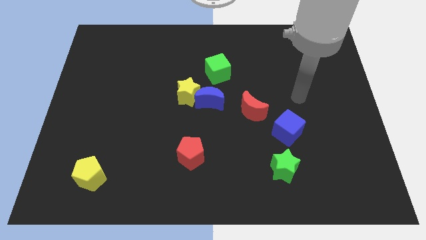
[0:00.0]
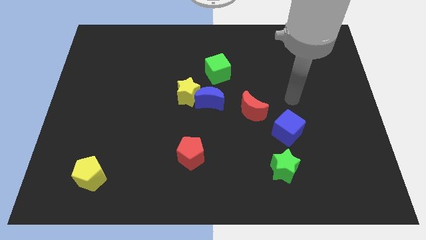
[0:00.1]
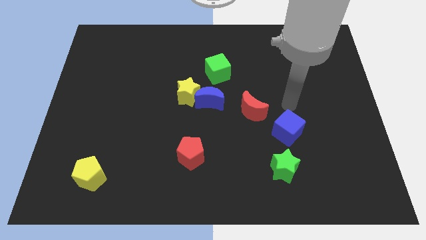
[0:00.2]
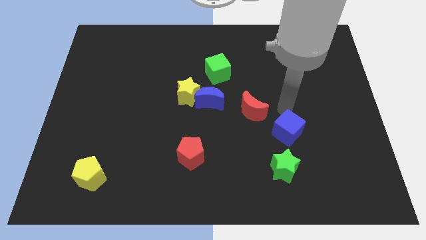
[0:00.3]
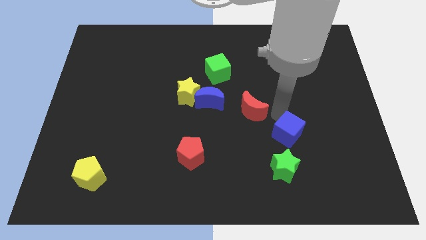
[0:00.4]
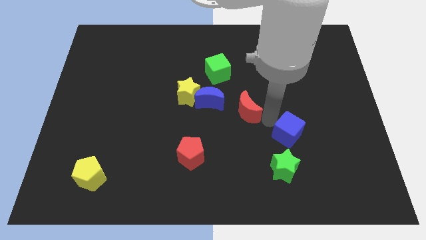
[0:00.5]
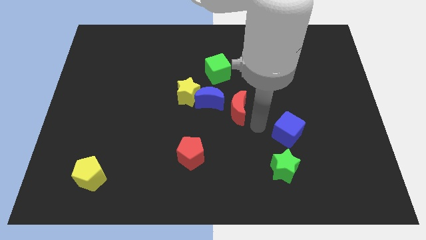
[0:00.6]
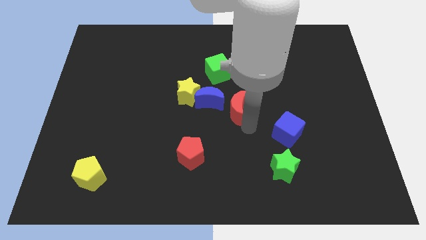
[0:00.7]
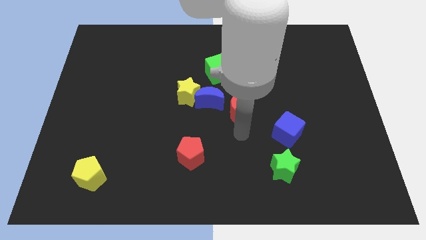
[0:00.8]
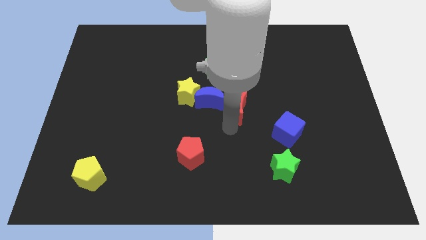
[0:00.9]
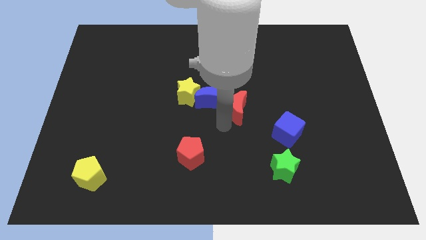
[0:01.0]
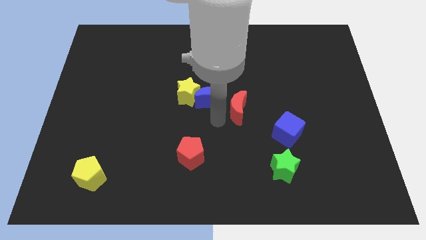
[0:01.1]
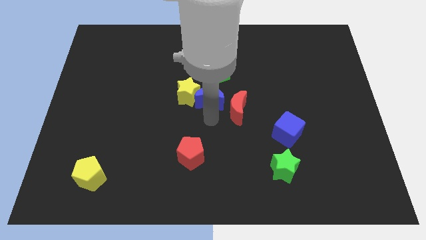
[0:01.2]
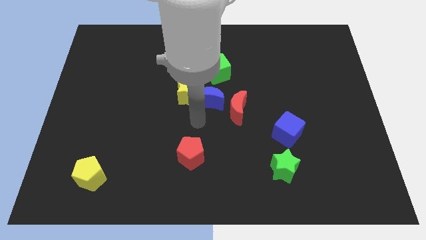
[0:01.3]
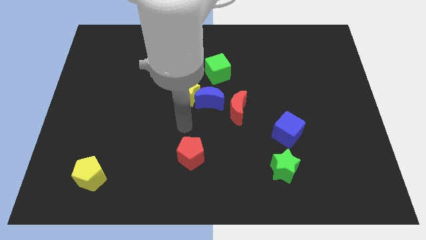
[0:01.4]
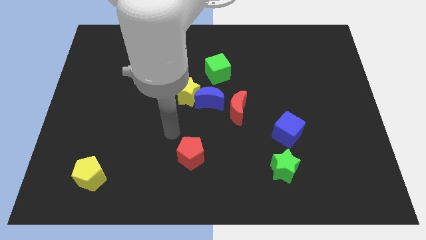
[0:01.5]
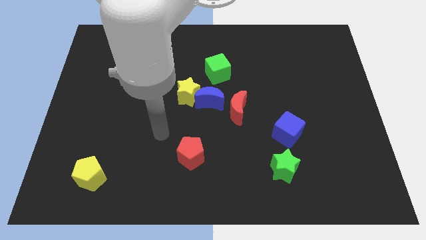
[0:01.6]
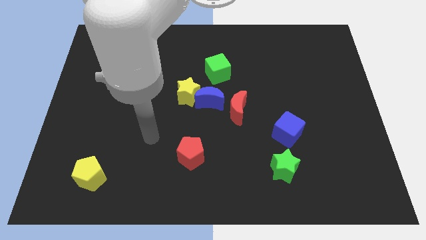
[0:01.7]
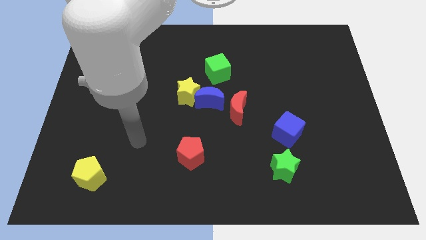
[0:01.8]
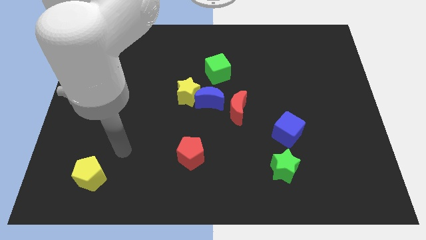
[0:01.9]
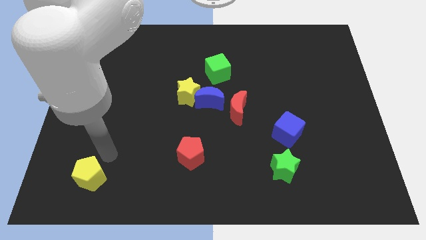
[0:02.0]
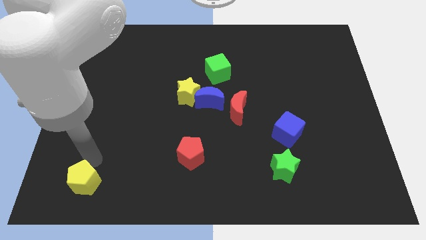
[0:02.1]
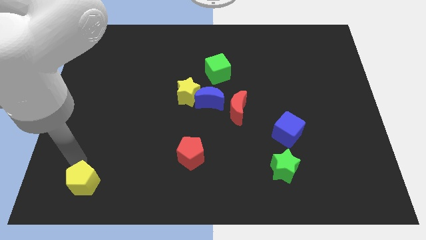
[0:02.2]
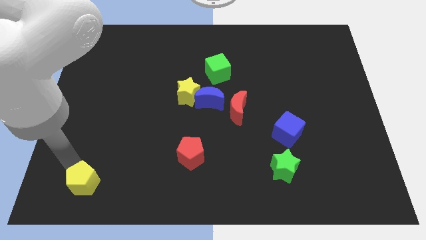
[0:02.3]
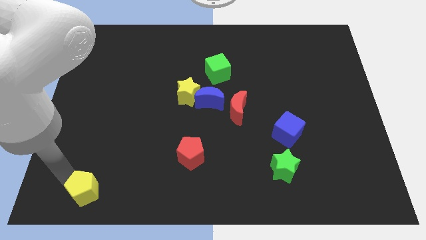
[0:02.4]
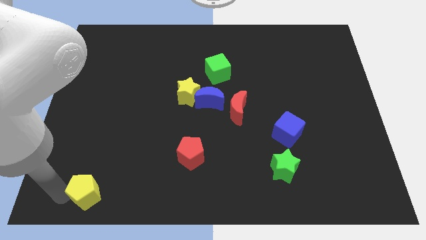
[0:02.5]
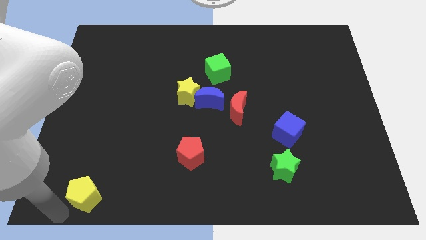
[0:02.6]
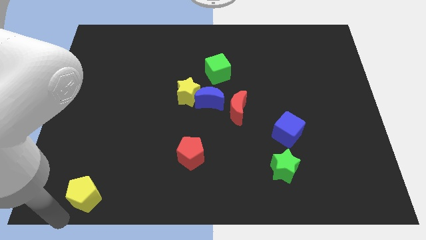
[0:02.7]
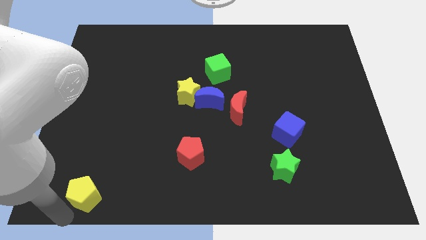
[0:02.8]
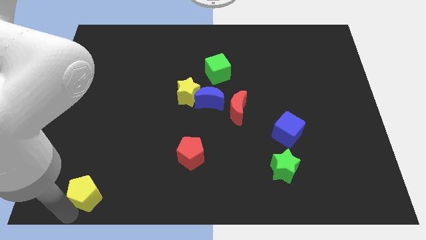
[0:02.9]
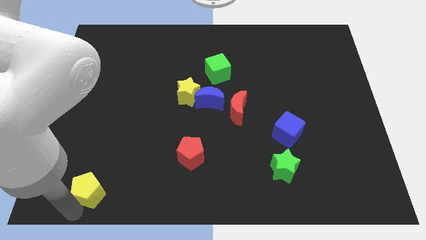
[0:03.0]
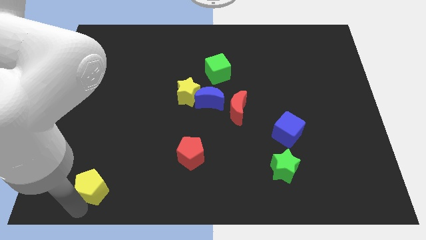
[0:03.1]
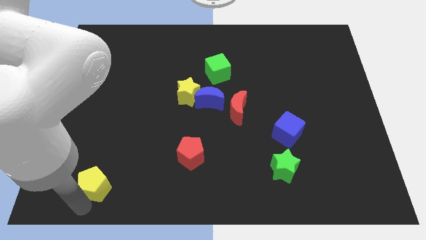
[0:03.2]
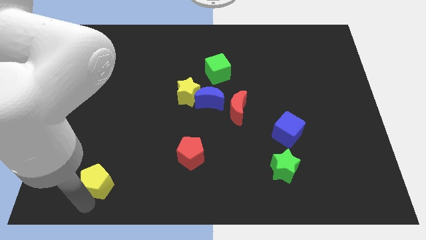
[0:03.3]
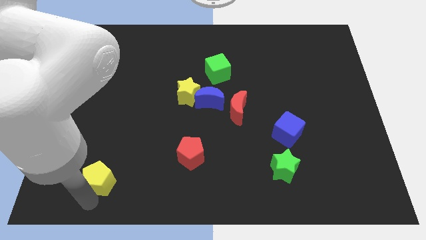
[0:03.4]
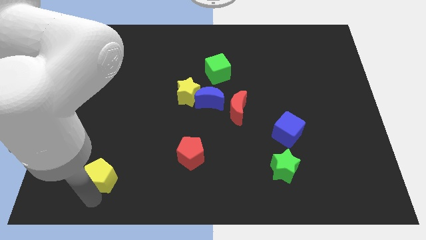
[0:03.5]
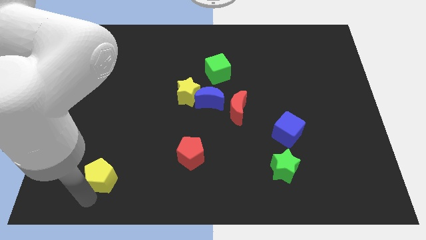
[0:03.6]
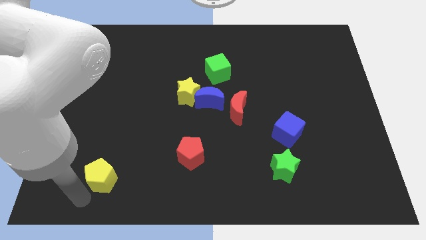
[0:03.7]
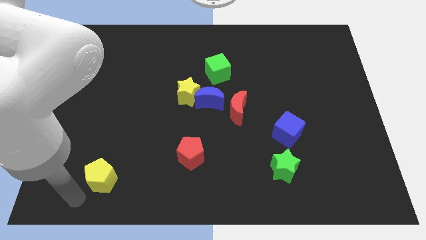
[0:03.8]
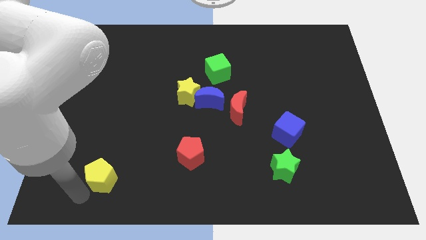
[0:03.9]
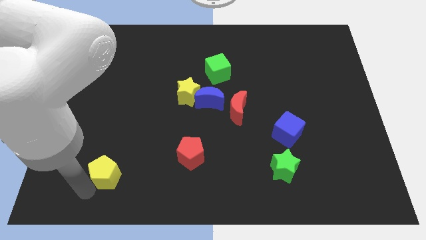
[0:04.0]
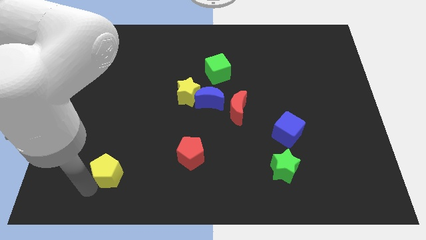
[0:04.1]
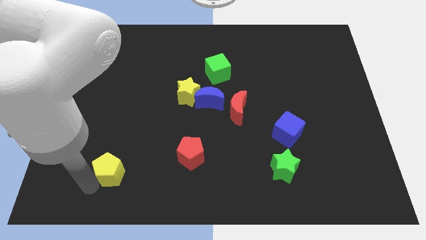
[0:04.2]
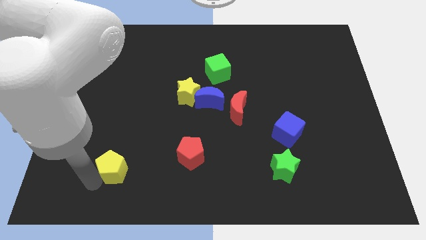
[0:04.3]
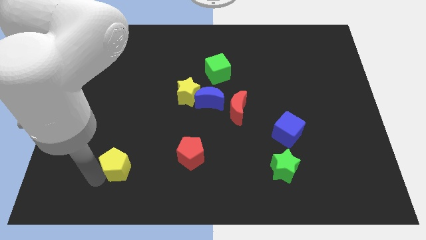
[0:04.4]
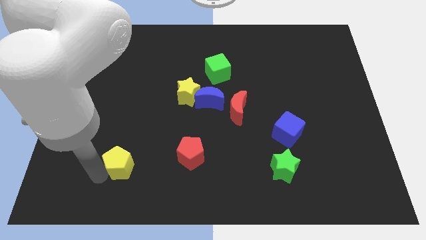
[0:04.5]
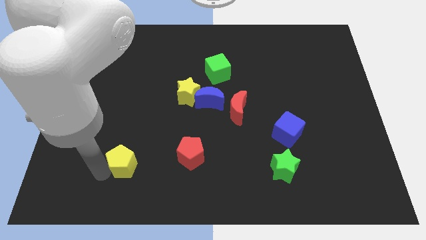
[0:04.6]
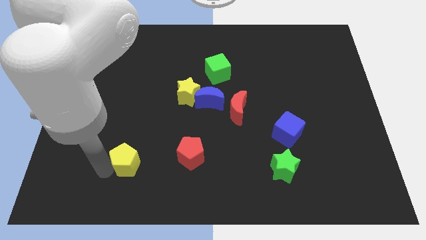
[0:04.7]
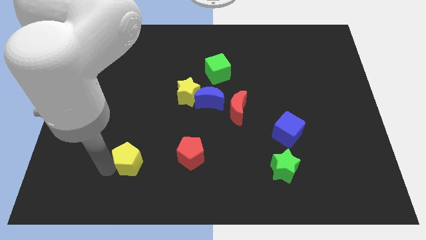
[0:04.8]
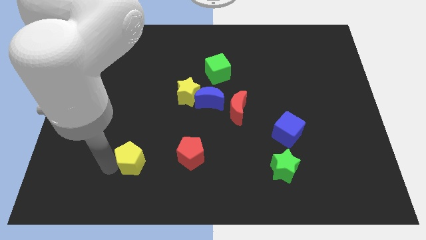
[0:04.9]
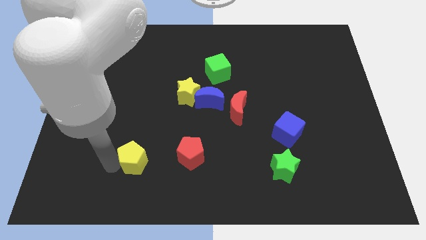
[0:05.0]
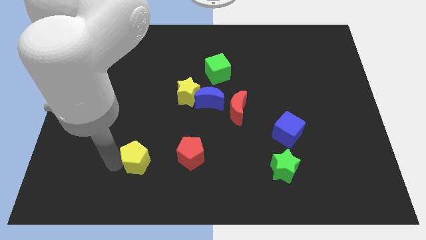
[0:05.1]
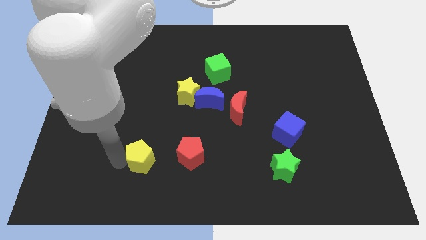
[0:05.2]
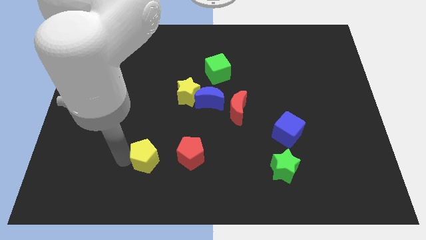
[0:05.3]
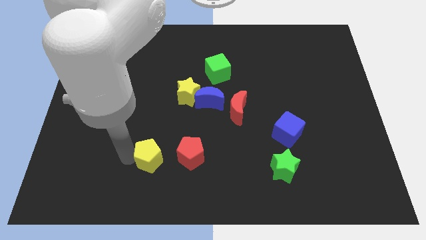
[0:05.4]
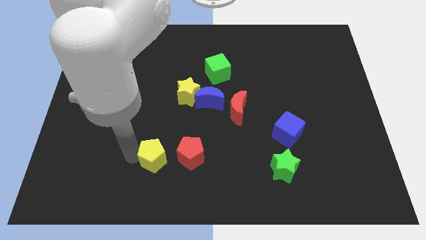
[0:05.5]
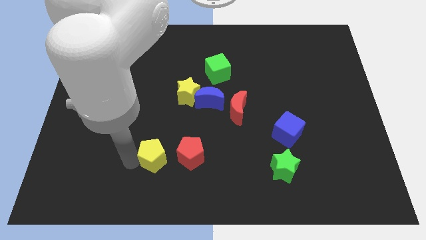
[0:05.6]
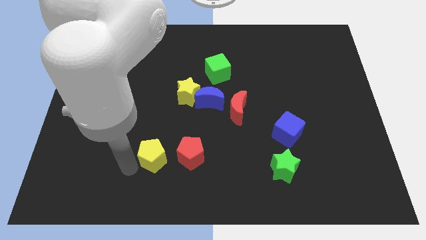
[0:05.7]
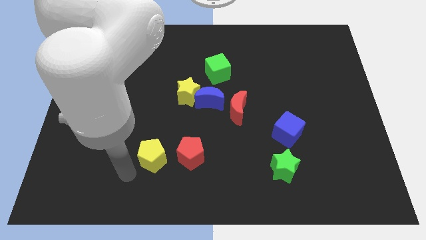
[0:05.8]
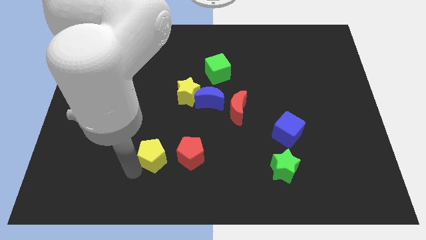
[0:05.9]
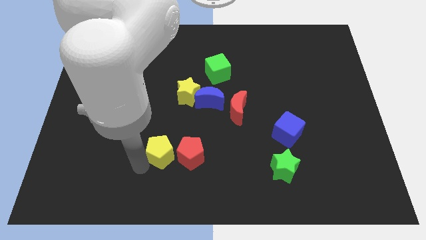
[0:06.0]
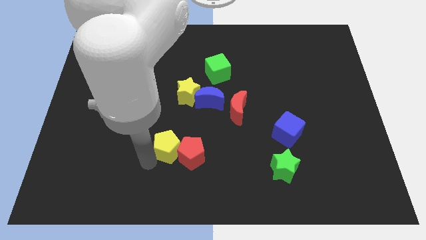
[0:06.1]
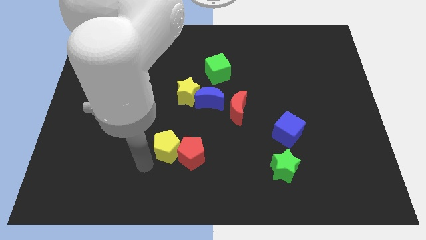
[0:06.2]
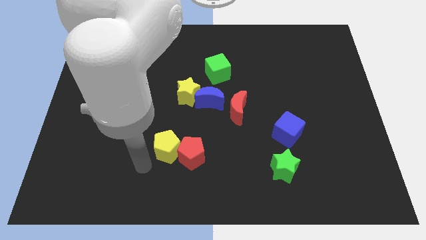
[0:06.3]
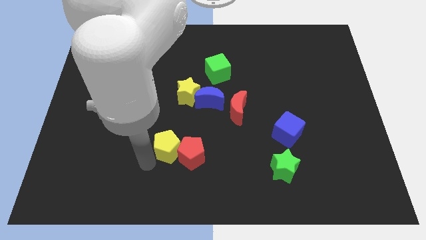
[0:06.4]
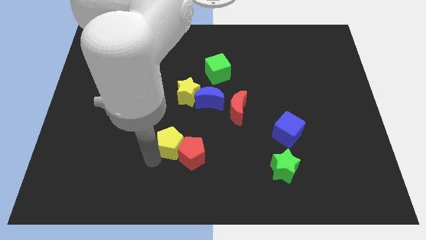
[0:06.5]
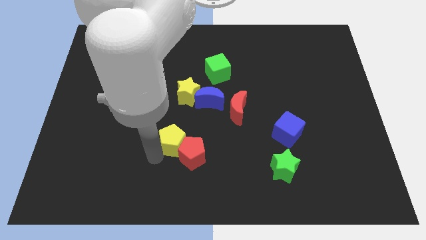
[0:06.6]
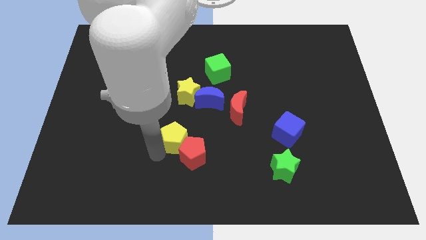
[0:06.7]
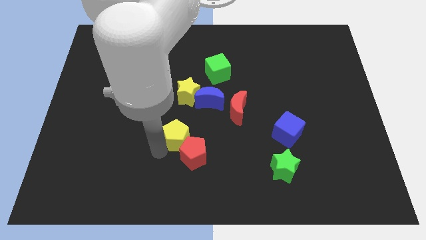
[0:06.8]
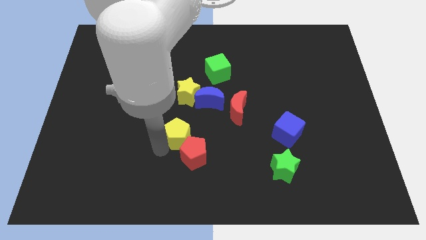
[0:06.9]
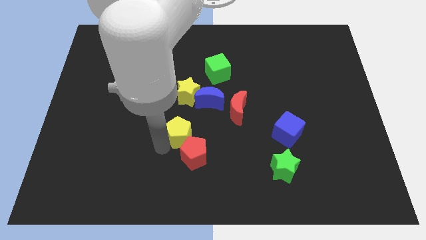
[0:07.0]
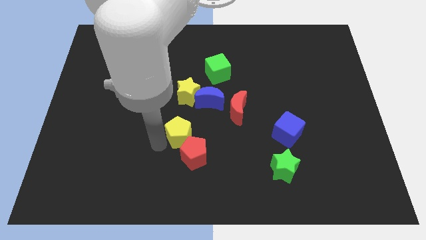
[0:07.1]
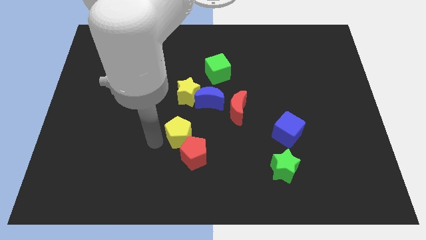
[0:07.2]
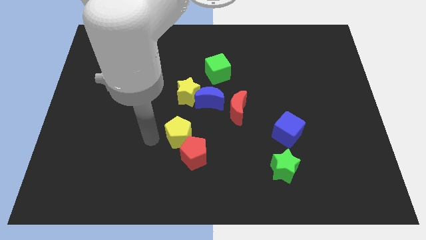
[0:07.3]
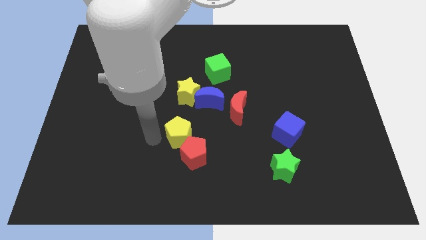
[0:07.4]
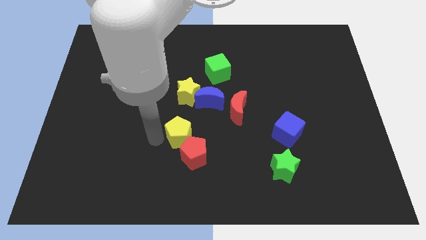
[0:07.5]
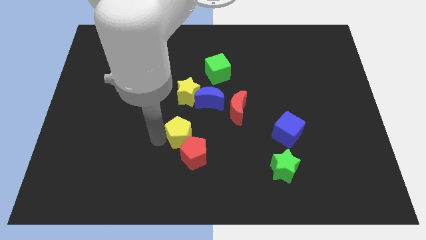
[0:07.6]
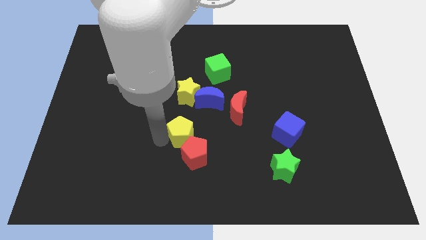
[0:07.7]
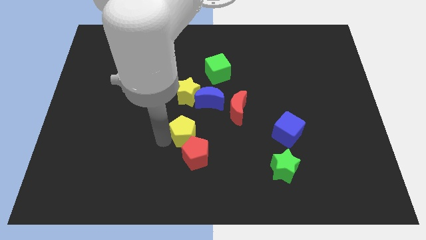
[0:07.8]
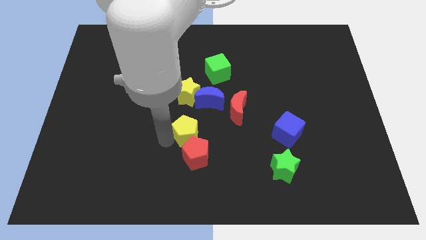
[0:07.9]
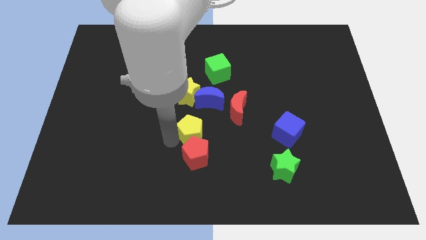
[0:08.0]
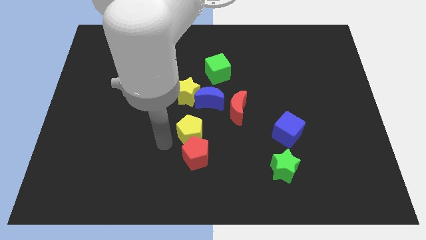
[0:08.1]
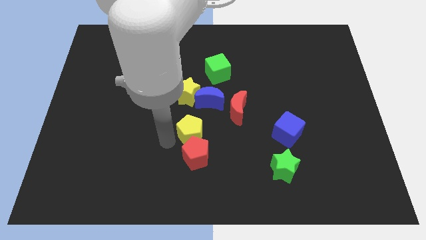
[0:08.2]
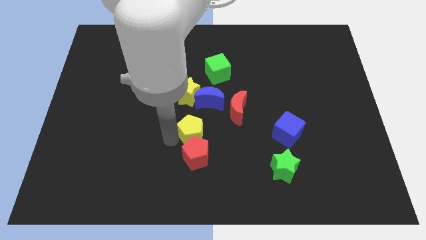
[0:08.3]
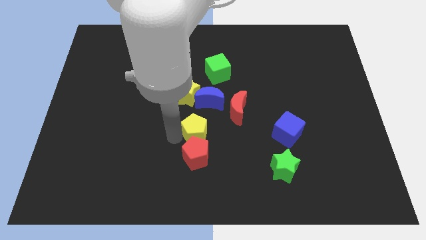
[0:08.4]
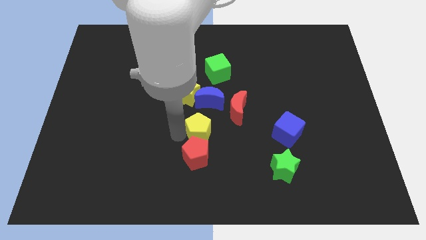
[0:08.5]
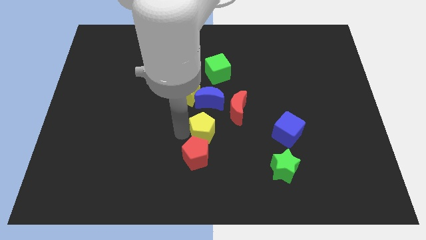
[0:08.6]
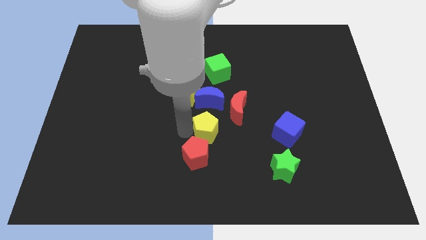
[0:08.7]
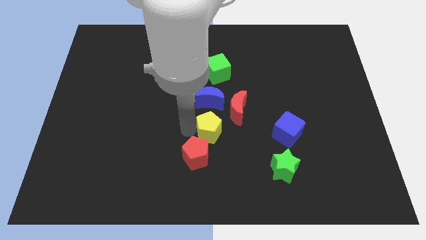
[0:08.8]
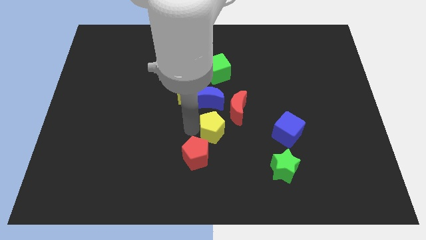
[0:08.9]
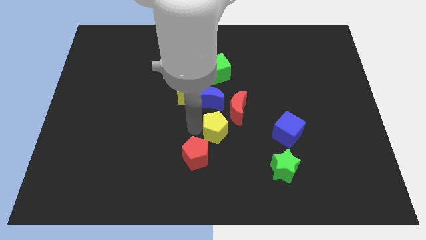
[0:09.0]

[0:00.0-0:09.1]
slide the yellow pentagon diagonally down and to the right of the blue moon
